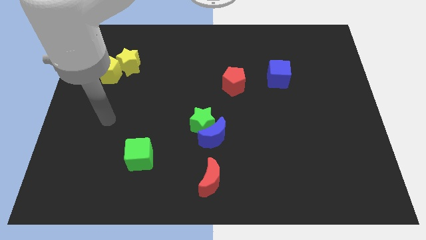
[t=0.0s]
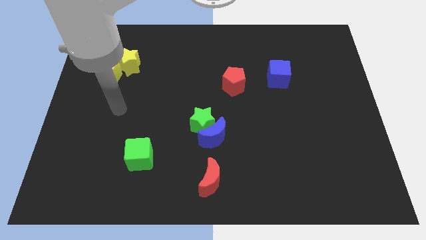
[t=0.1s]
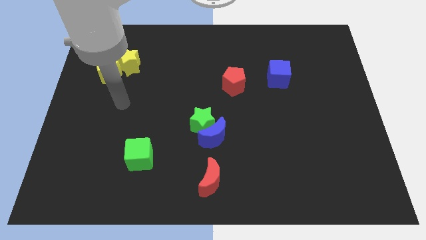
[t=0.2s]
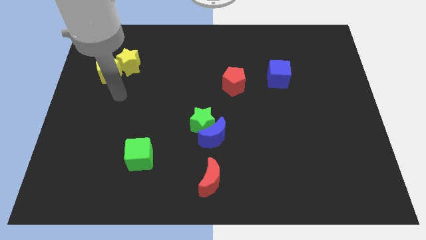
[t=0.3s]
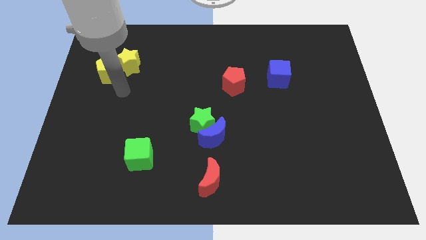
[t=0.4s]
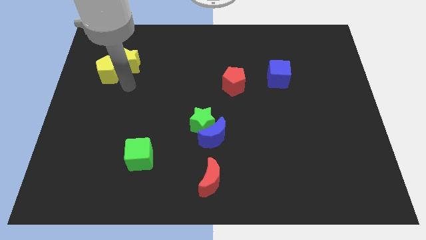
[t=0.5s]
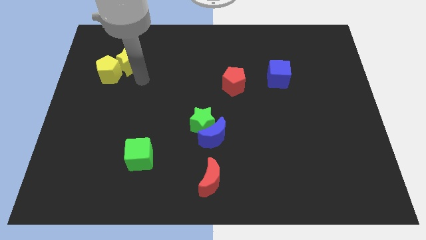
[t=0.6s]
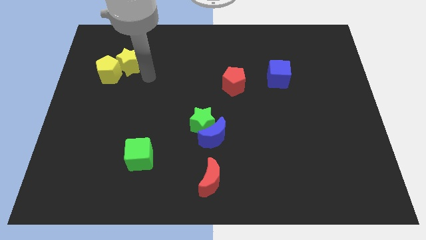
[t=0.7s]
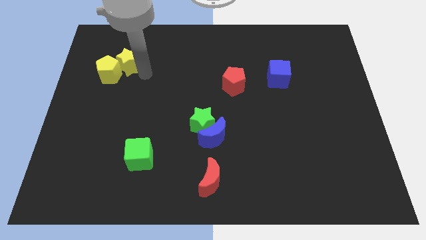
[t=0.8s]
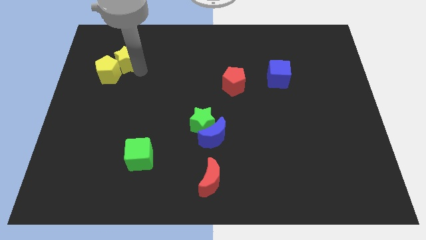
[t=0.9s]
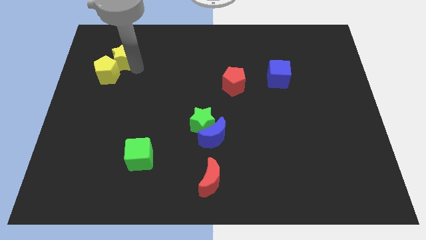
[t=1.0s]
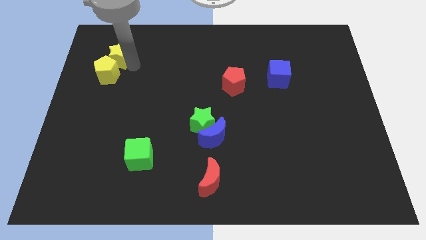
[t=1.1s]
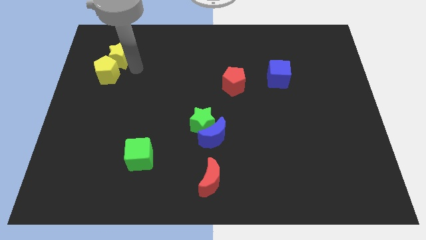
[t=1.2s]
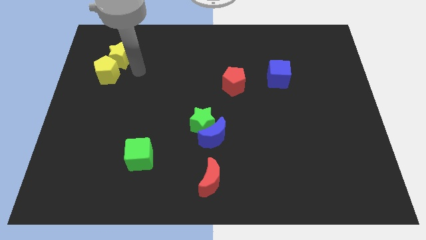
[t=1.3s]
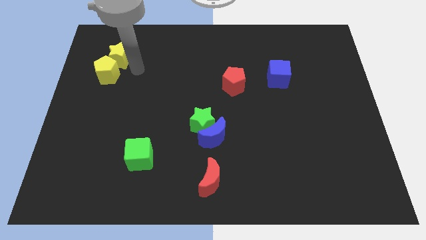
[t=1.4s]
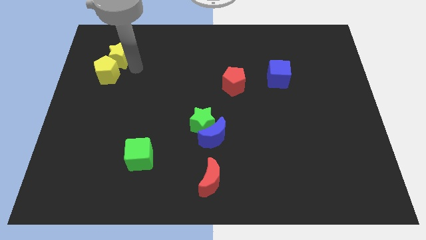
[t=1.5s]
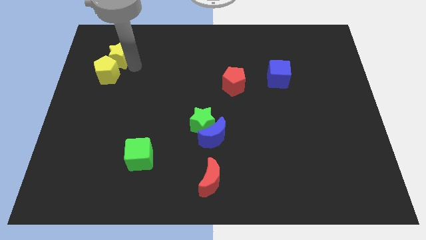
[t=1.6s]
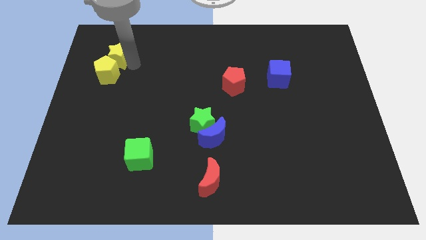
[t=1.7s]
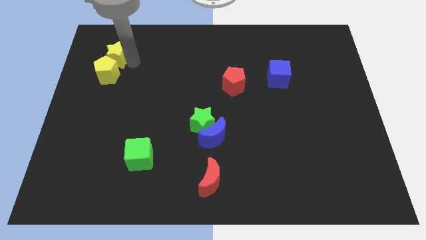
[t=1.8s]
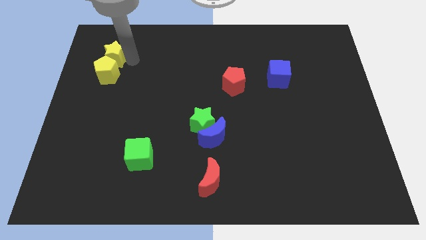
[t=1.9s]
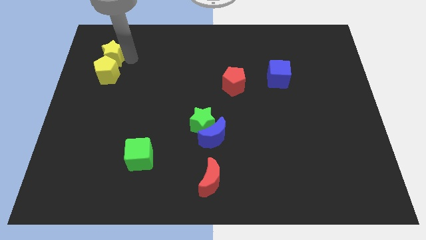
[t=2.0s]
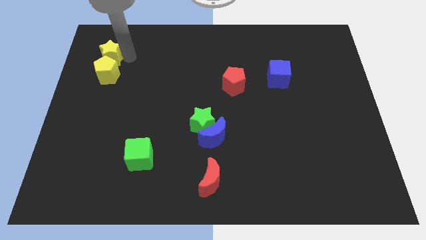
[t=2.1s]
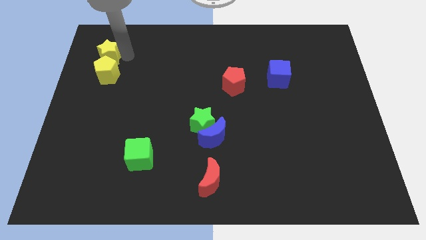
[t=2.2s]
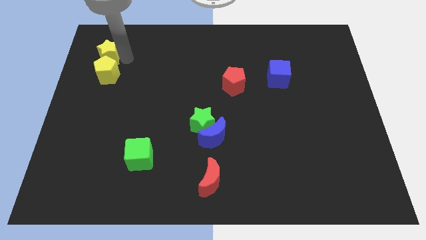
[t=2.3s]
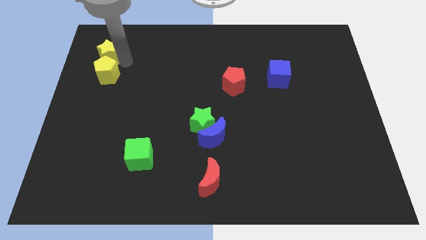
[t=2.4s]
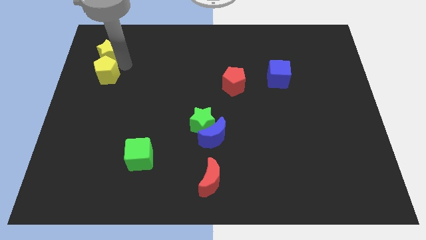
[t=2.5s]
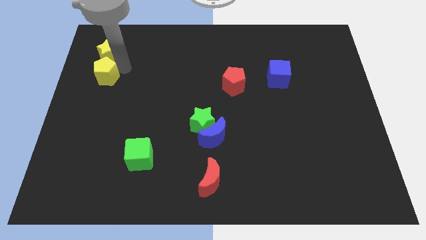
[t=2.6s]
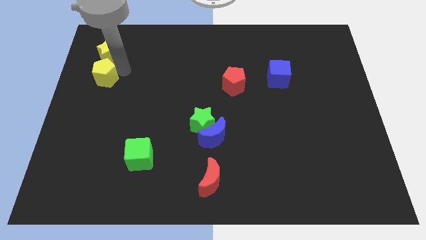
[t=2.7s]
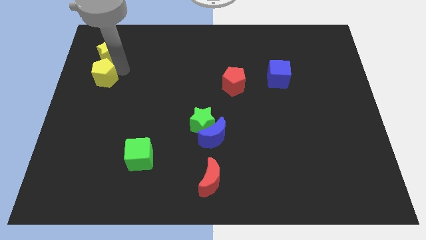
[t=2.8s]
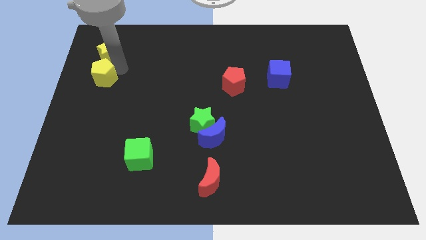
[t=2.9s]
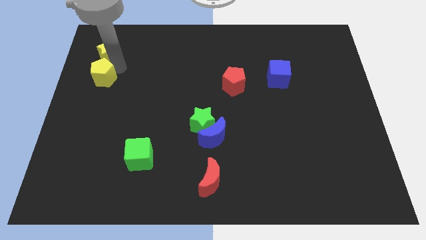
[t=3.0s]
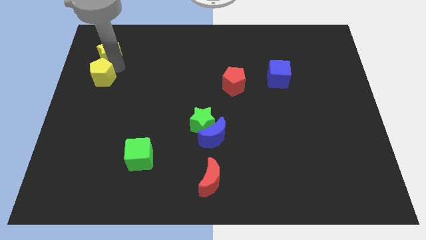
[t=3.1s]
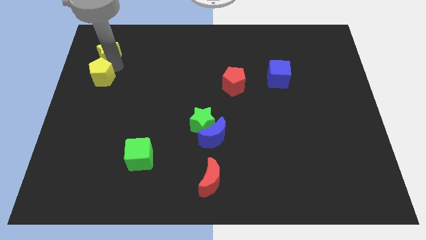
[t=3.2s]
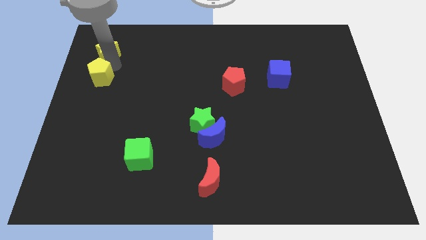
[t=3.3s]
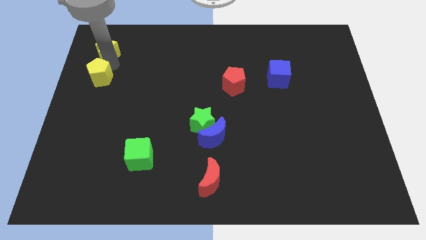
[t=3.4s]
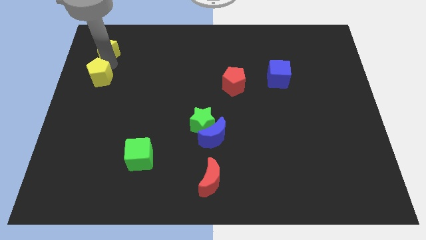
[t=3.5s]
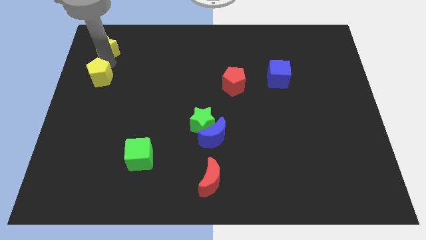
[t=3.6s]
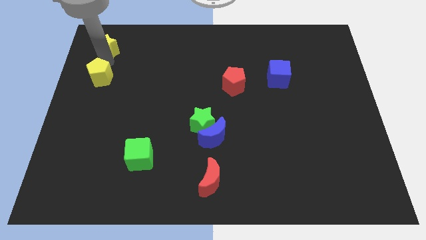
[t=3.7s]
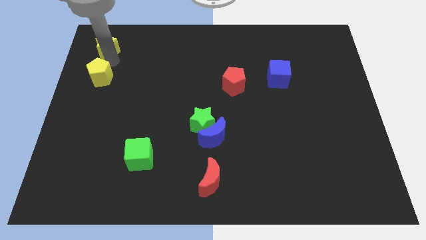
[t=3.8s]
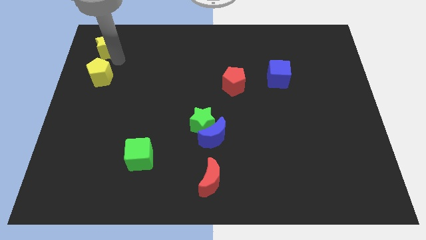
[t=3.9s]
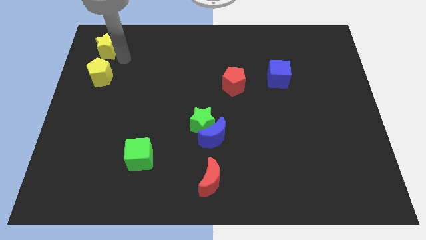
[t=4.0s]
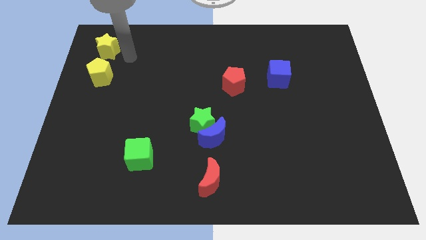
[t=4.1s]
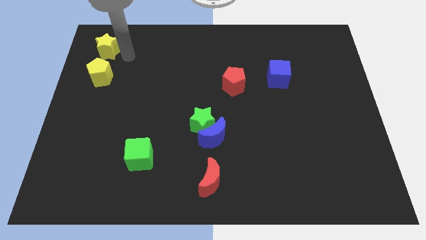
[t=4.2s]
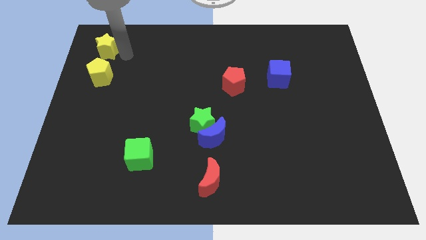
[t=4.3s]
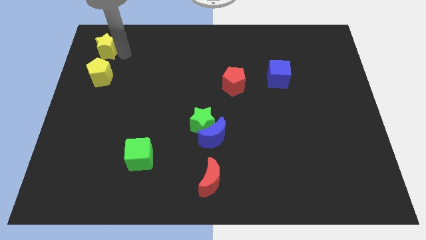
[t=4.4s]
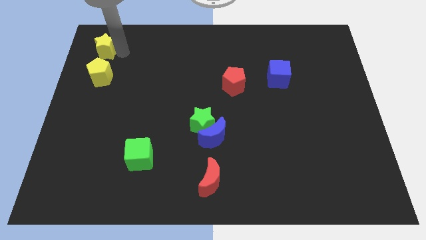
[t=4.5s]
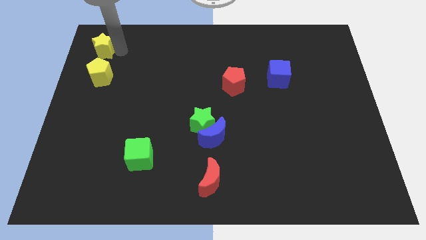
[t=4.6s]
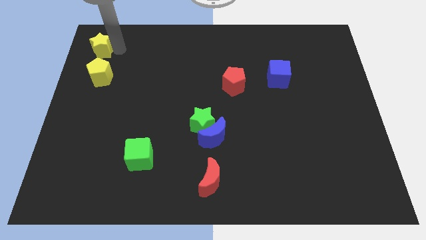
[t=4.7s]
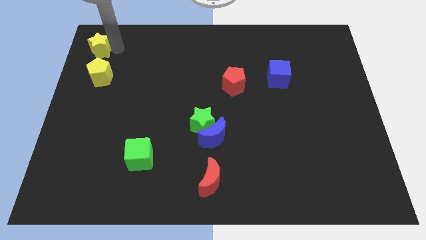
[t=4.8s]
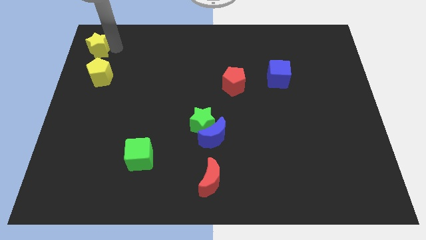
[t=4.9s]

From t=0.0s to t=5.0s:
put the yellow star to the top left corner

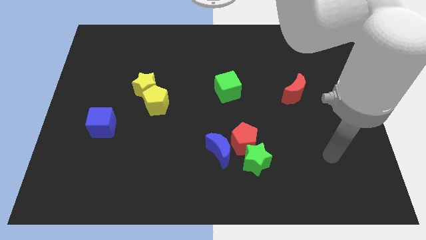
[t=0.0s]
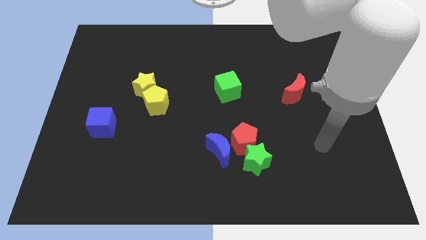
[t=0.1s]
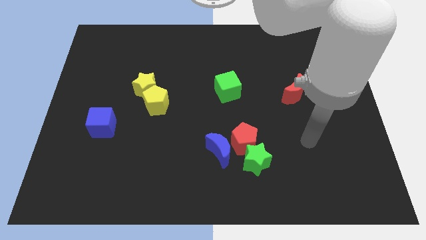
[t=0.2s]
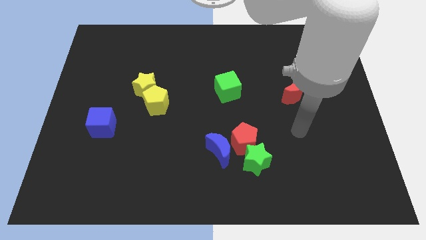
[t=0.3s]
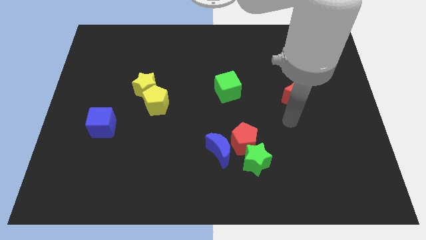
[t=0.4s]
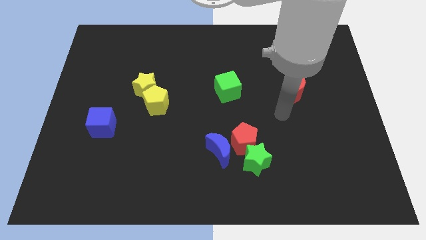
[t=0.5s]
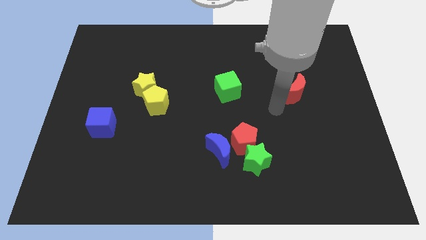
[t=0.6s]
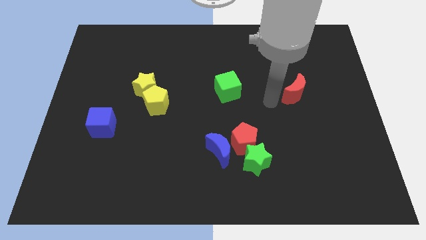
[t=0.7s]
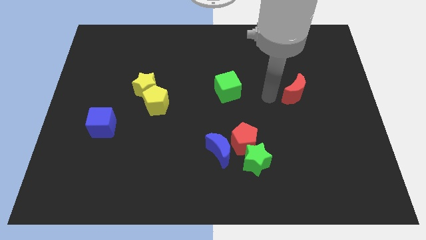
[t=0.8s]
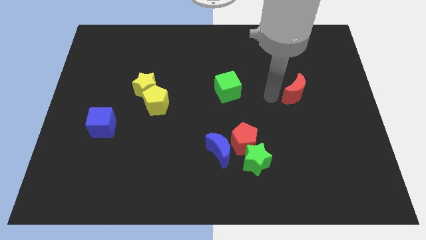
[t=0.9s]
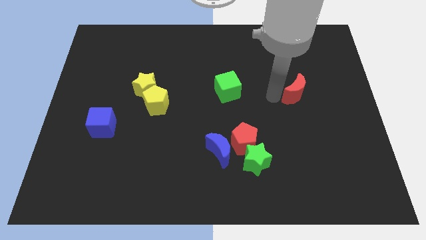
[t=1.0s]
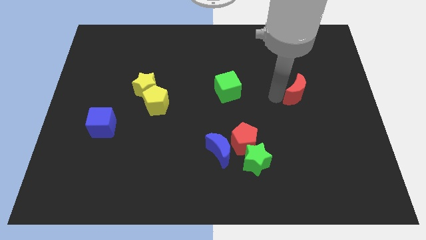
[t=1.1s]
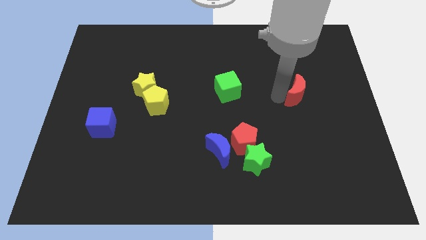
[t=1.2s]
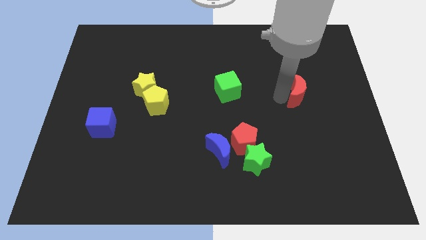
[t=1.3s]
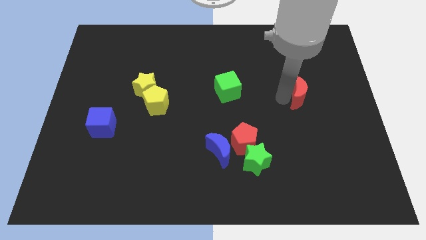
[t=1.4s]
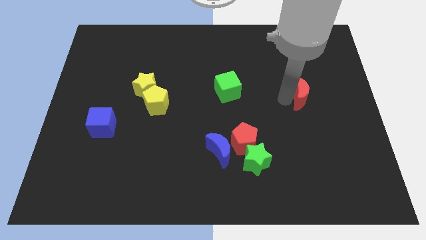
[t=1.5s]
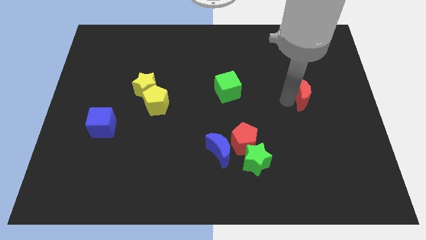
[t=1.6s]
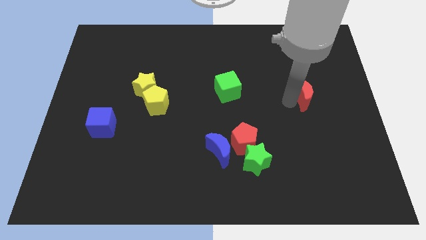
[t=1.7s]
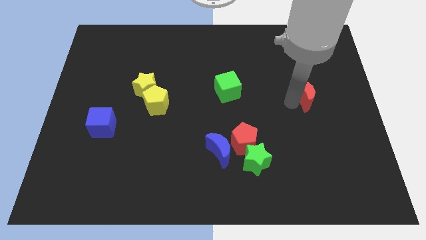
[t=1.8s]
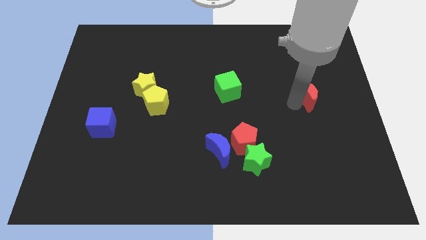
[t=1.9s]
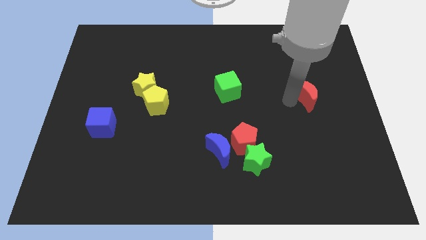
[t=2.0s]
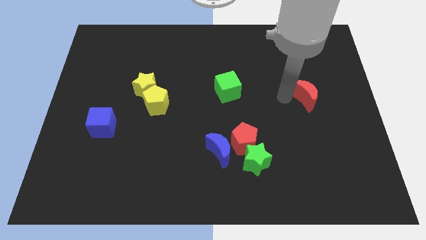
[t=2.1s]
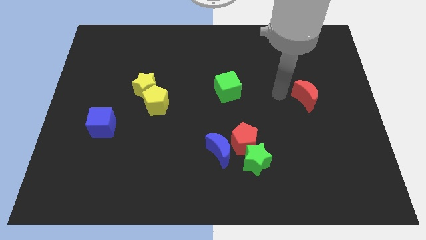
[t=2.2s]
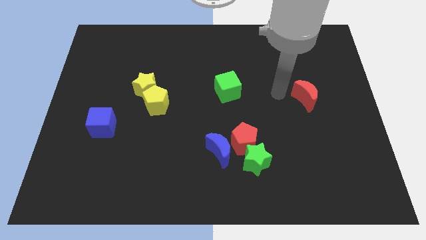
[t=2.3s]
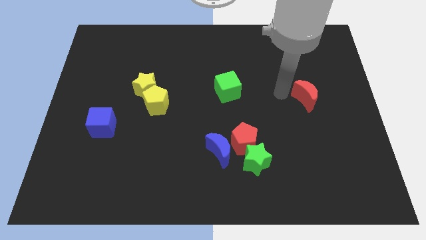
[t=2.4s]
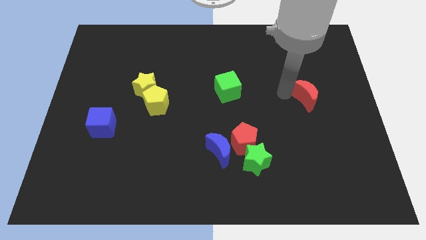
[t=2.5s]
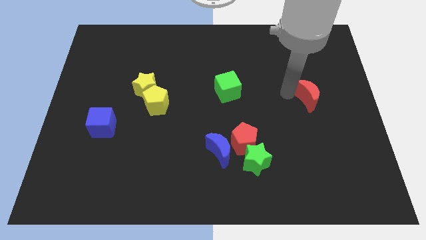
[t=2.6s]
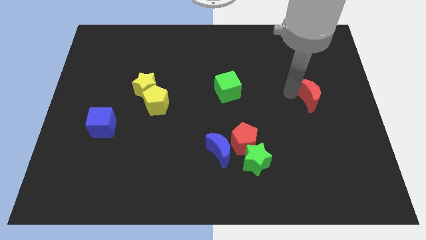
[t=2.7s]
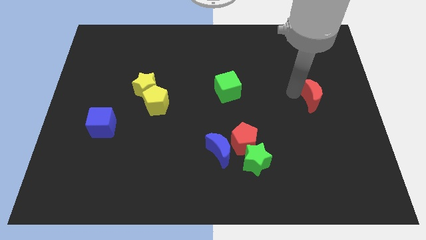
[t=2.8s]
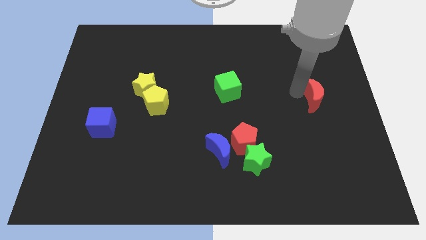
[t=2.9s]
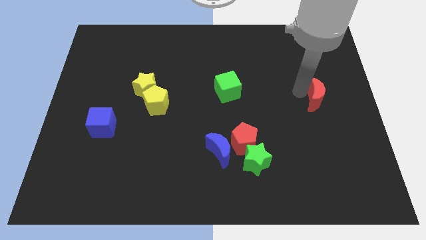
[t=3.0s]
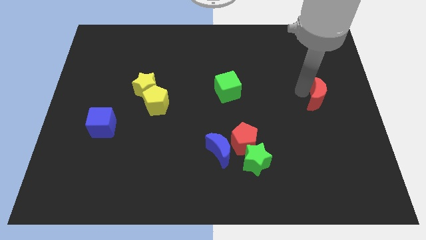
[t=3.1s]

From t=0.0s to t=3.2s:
slide the red moon to the right side of the board
